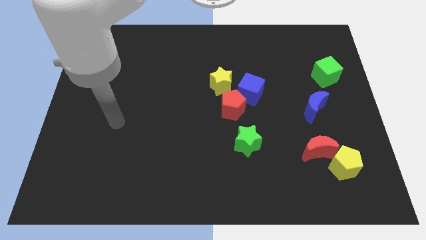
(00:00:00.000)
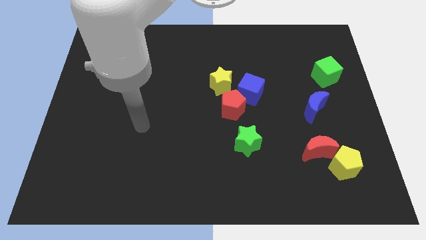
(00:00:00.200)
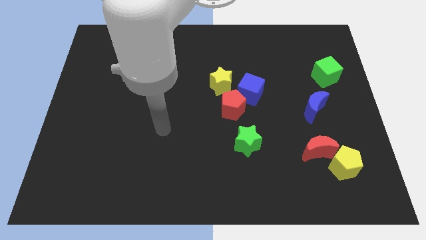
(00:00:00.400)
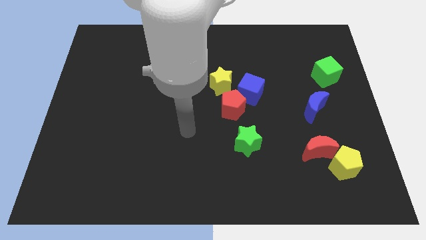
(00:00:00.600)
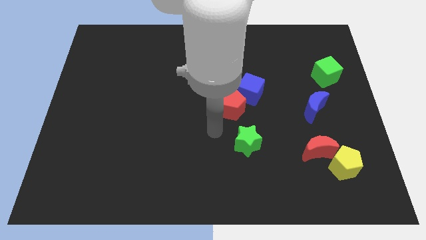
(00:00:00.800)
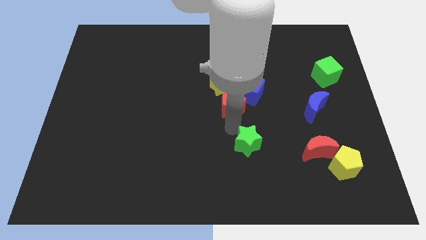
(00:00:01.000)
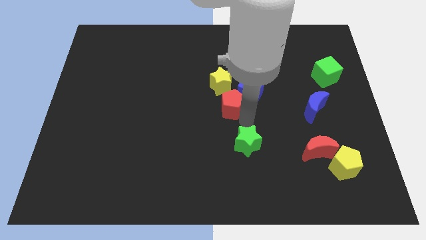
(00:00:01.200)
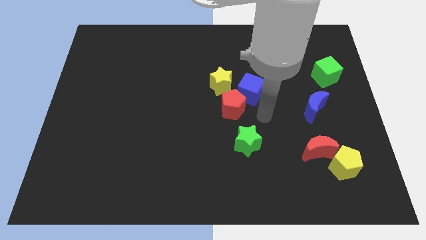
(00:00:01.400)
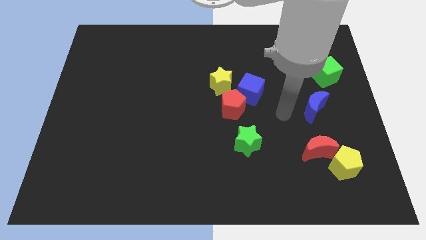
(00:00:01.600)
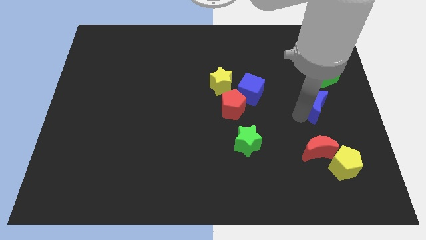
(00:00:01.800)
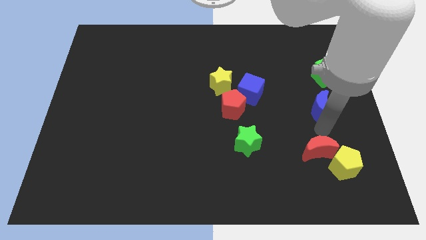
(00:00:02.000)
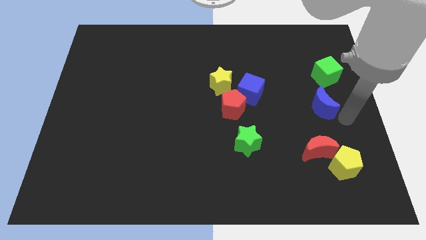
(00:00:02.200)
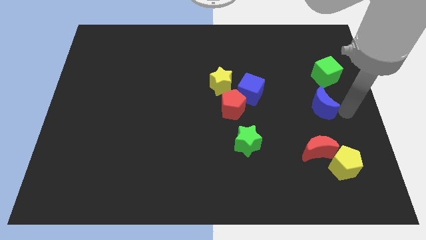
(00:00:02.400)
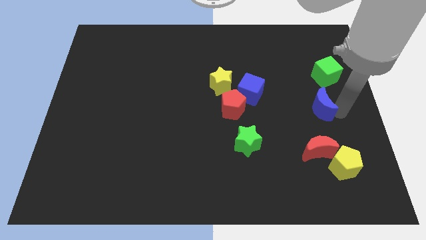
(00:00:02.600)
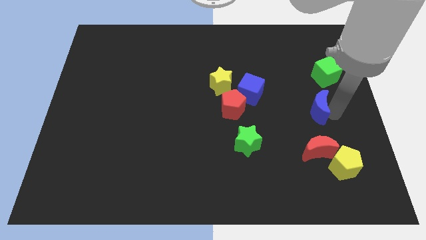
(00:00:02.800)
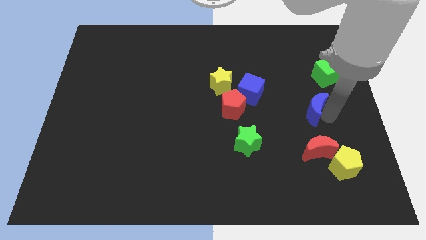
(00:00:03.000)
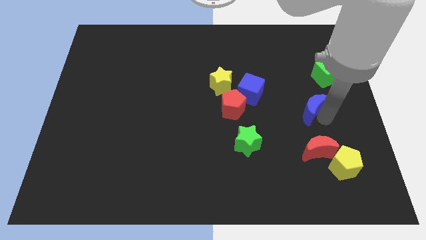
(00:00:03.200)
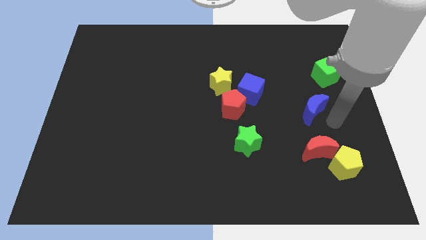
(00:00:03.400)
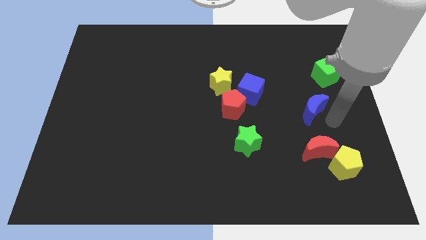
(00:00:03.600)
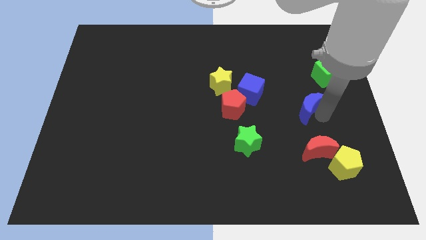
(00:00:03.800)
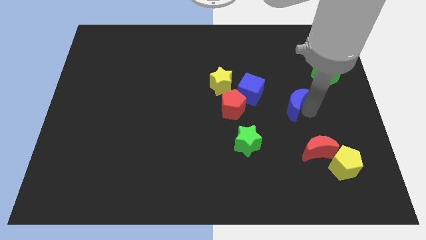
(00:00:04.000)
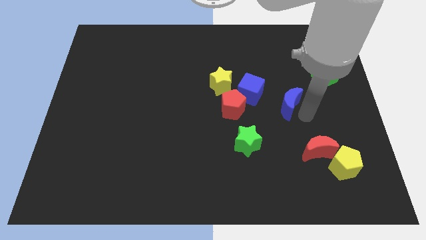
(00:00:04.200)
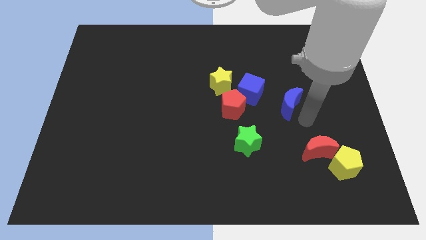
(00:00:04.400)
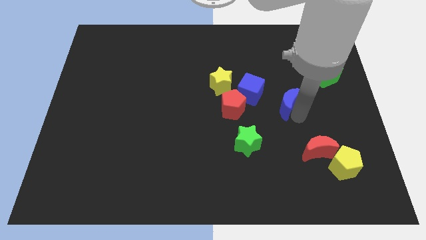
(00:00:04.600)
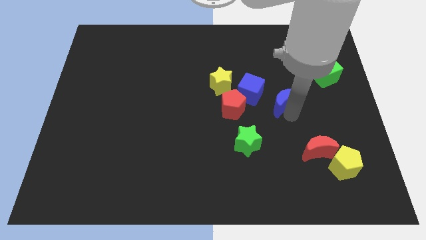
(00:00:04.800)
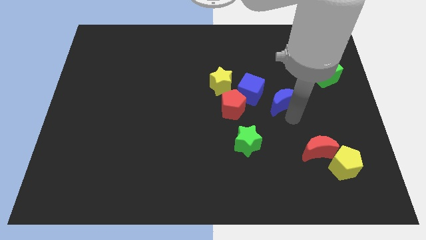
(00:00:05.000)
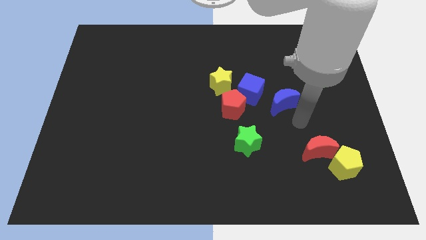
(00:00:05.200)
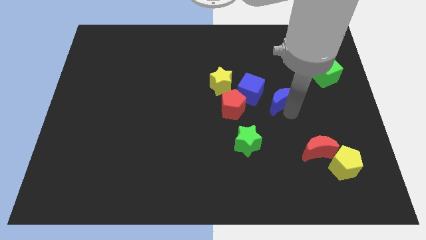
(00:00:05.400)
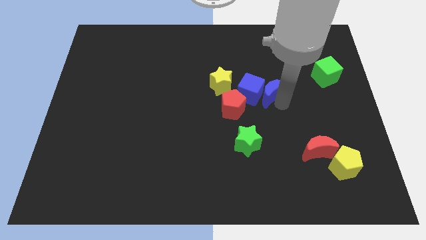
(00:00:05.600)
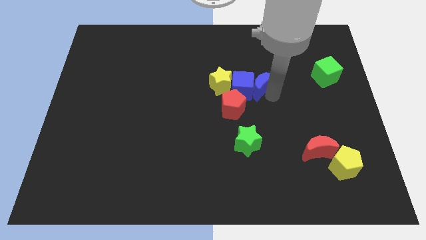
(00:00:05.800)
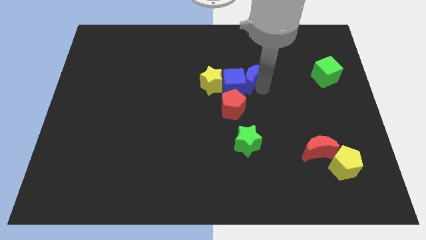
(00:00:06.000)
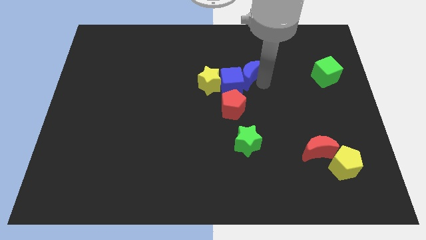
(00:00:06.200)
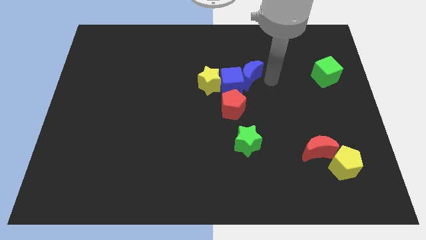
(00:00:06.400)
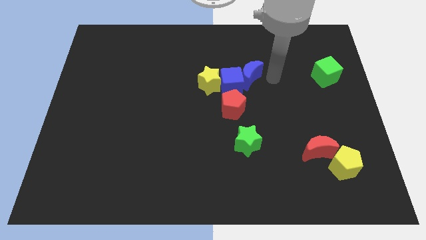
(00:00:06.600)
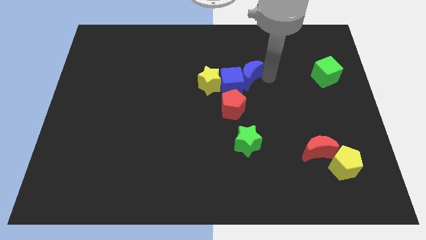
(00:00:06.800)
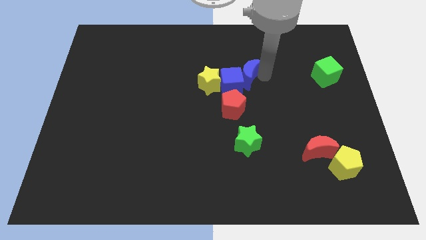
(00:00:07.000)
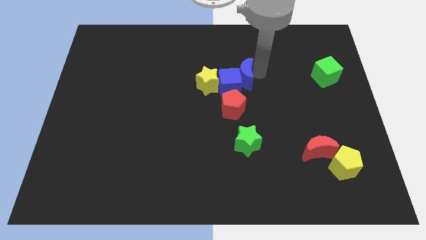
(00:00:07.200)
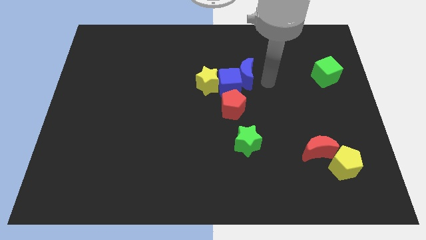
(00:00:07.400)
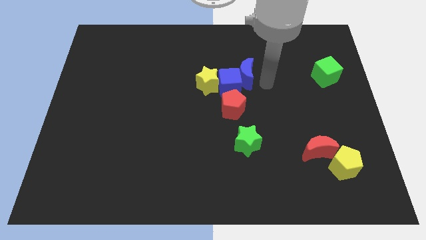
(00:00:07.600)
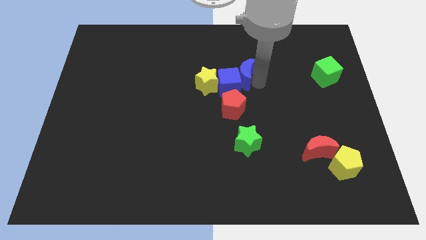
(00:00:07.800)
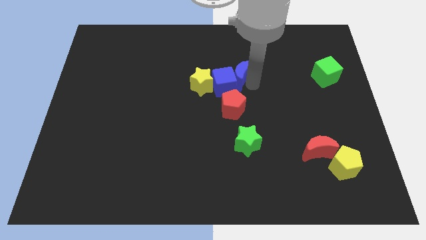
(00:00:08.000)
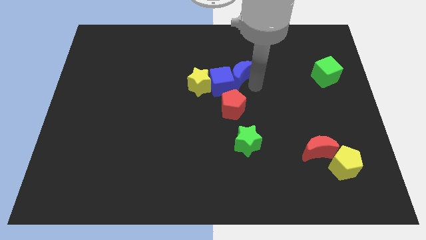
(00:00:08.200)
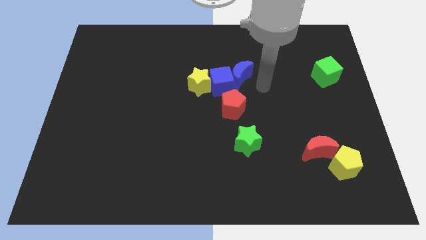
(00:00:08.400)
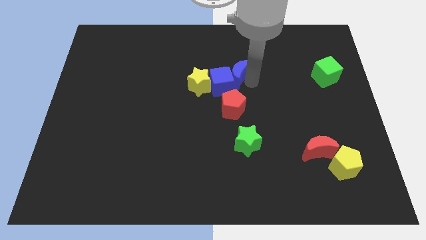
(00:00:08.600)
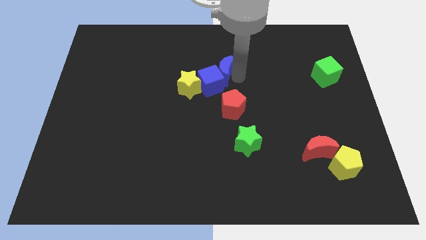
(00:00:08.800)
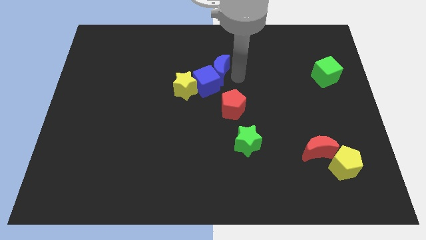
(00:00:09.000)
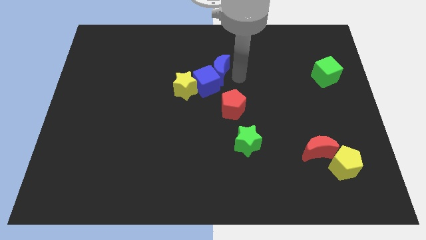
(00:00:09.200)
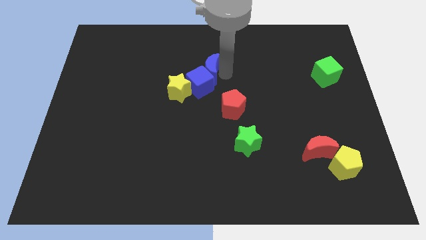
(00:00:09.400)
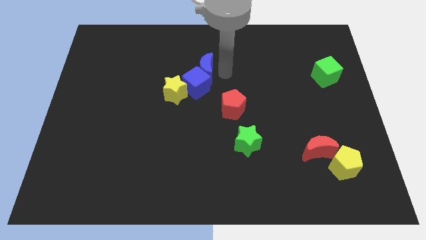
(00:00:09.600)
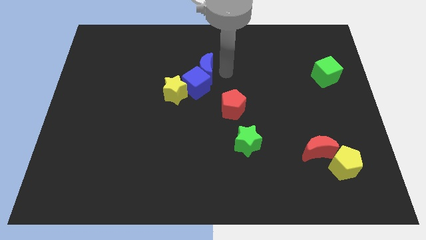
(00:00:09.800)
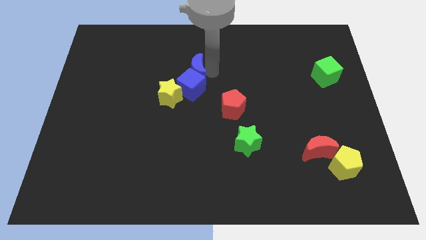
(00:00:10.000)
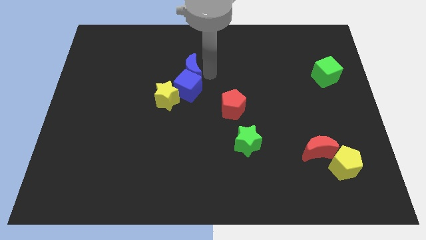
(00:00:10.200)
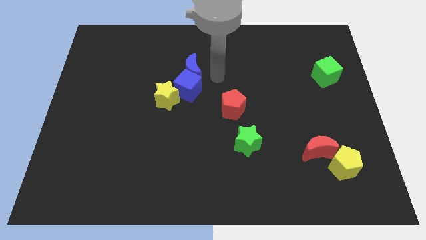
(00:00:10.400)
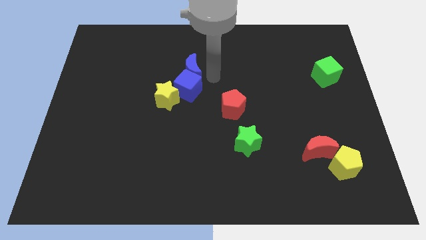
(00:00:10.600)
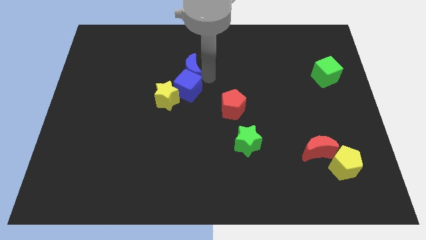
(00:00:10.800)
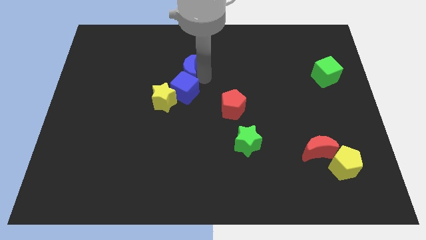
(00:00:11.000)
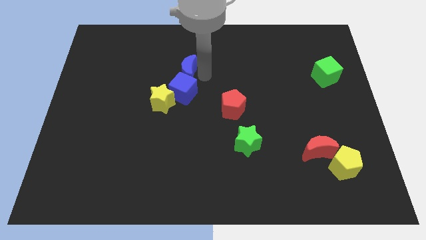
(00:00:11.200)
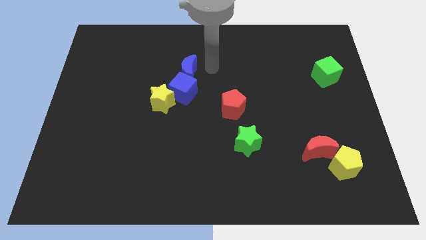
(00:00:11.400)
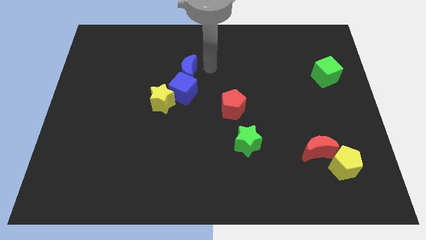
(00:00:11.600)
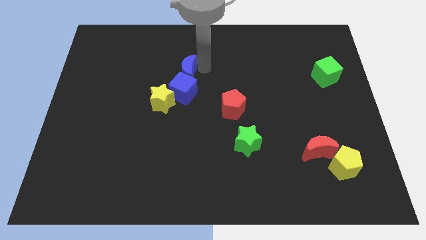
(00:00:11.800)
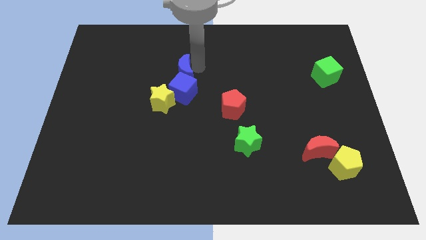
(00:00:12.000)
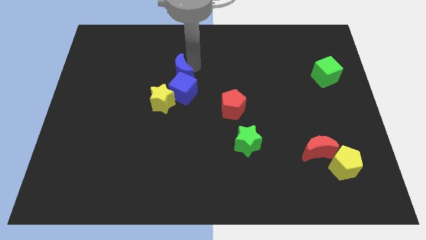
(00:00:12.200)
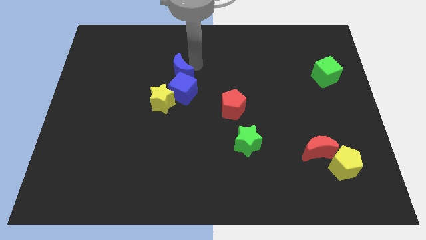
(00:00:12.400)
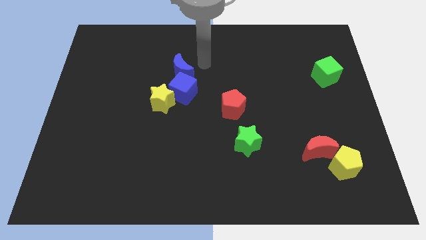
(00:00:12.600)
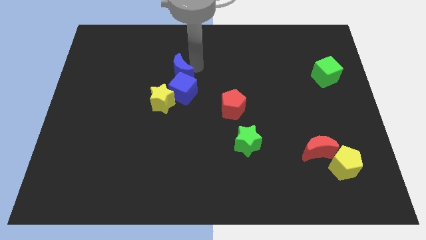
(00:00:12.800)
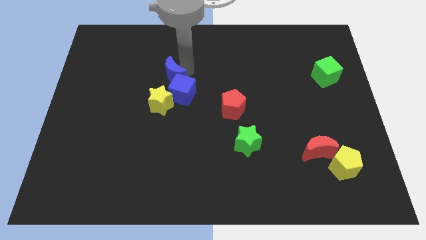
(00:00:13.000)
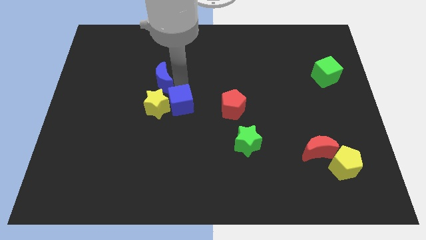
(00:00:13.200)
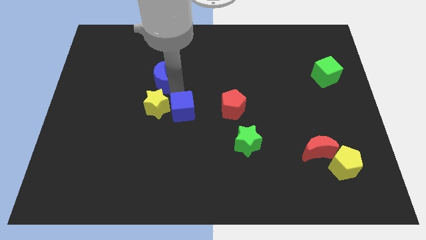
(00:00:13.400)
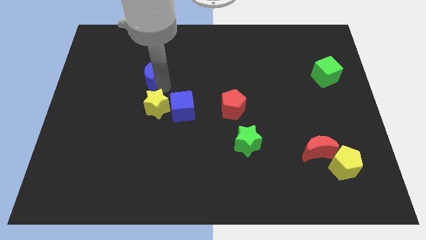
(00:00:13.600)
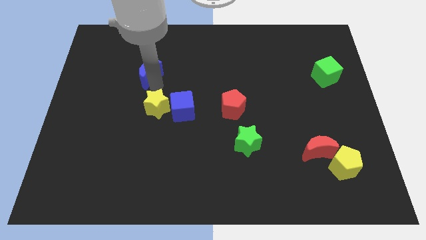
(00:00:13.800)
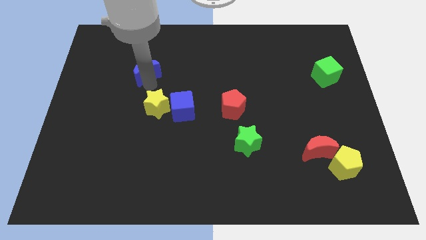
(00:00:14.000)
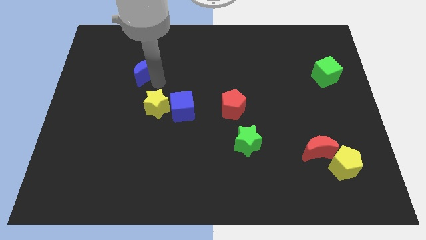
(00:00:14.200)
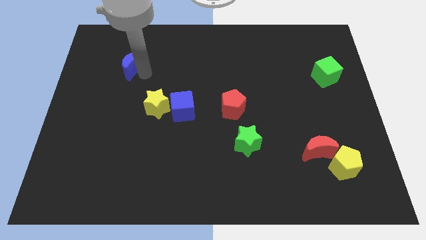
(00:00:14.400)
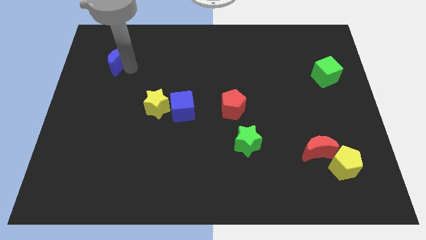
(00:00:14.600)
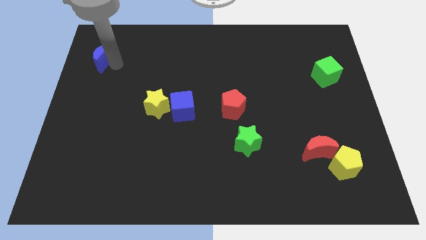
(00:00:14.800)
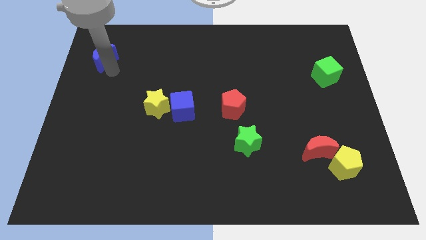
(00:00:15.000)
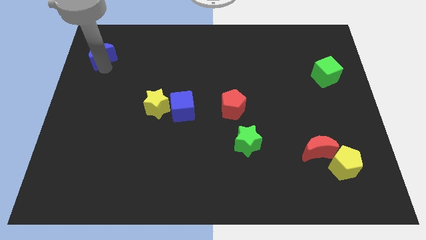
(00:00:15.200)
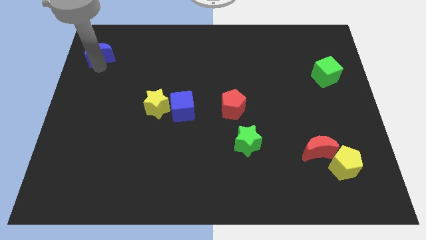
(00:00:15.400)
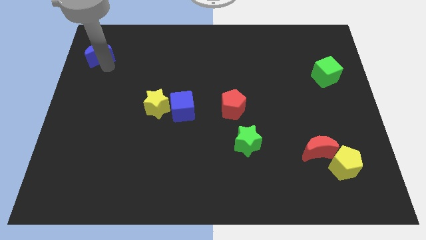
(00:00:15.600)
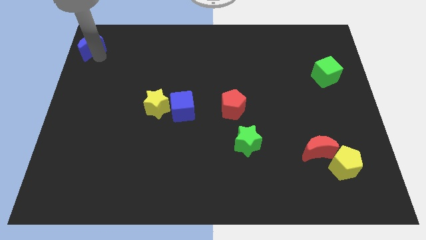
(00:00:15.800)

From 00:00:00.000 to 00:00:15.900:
slide the blue moon to the upper left corner
